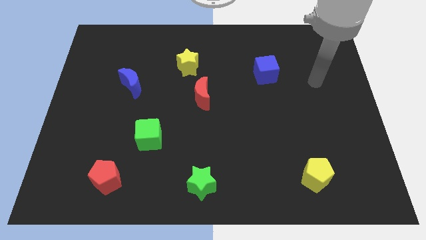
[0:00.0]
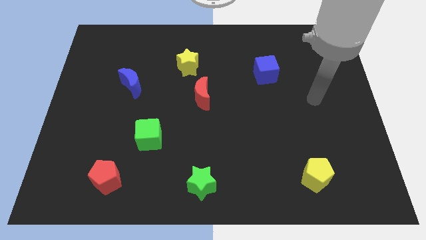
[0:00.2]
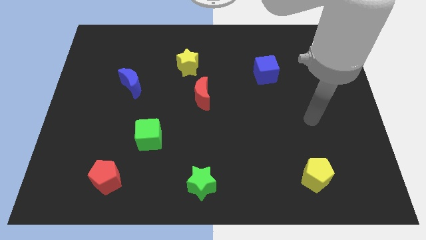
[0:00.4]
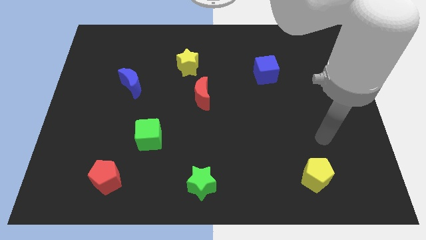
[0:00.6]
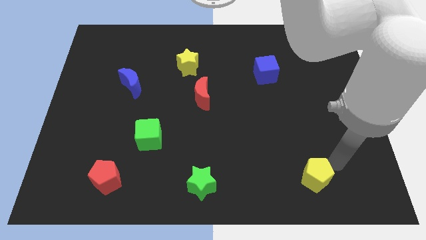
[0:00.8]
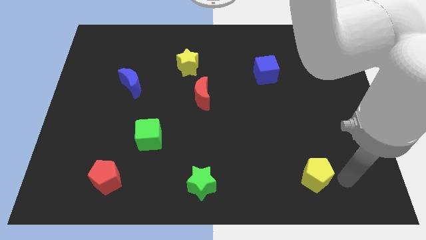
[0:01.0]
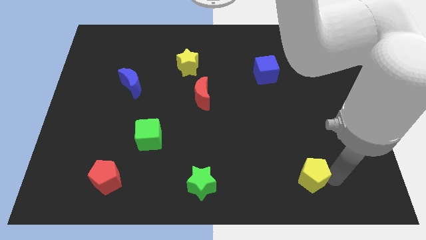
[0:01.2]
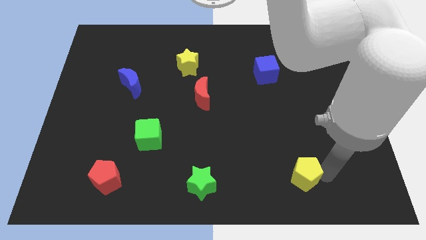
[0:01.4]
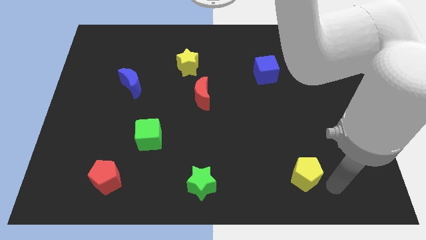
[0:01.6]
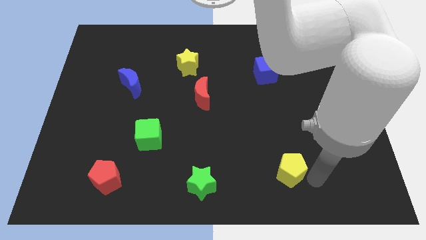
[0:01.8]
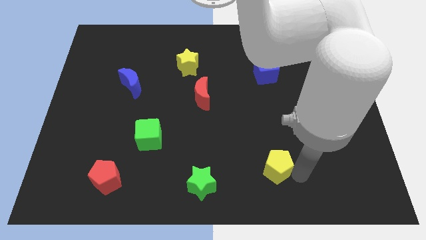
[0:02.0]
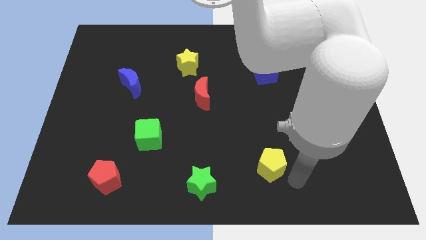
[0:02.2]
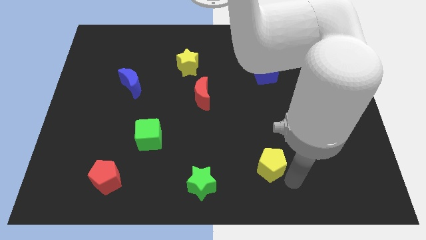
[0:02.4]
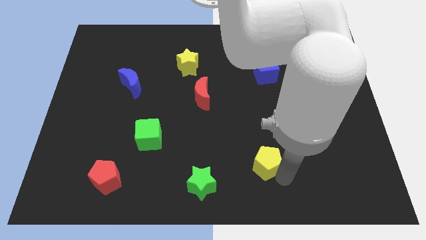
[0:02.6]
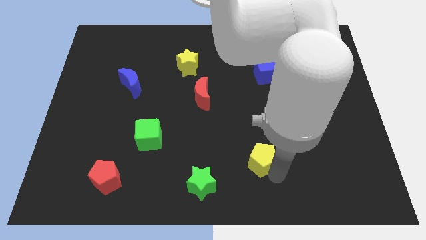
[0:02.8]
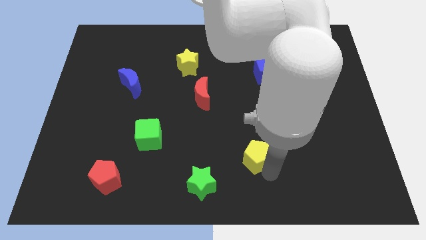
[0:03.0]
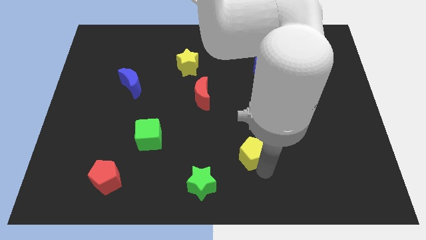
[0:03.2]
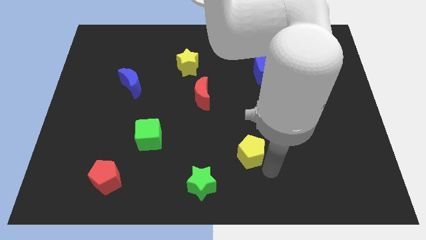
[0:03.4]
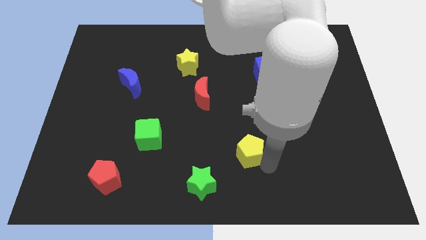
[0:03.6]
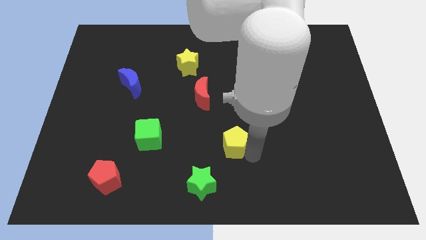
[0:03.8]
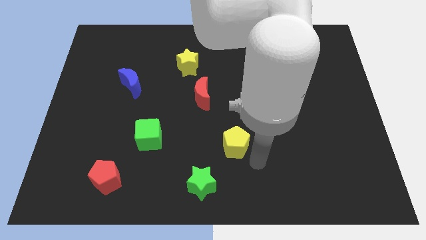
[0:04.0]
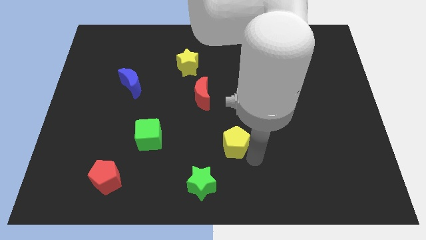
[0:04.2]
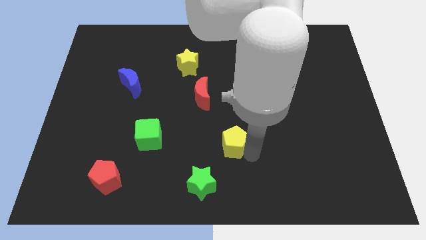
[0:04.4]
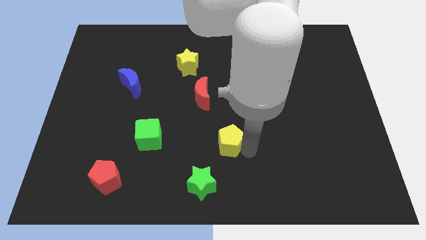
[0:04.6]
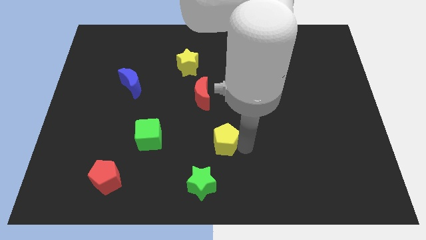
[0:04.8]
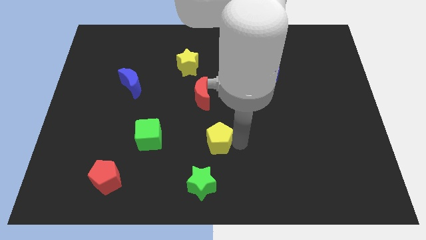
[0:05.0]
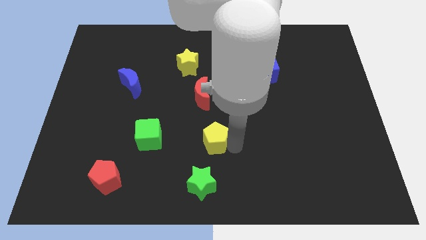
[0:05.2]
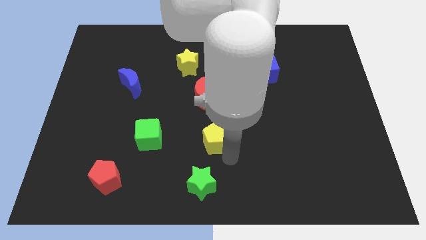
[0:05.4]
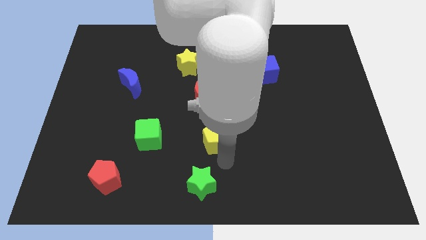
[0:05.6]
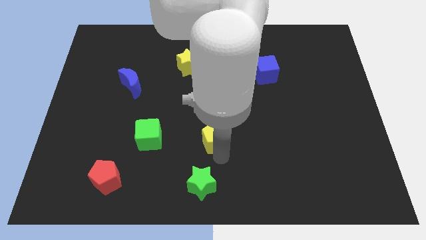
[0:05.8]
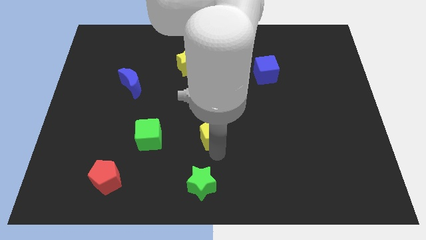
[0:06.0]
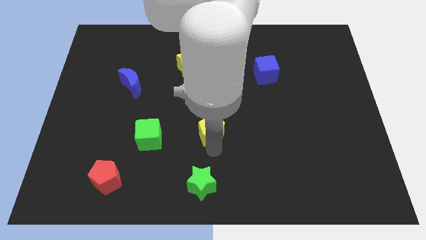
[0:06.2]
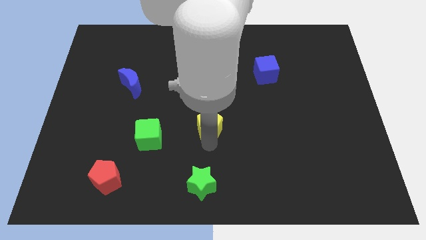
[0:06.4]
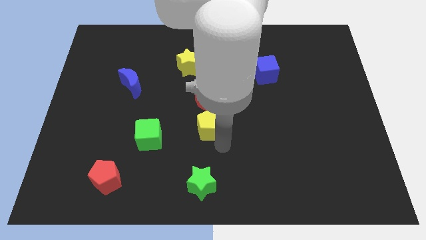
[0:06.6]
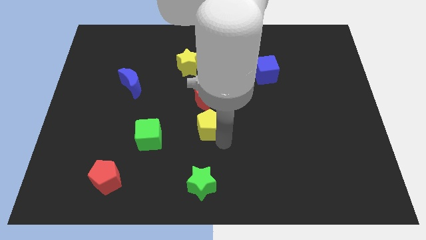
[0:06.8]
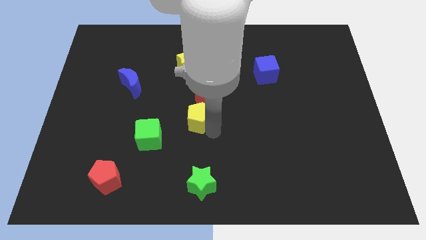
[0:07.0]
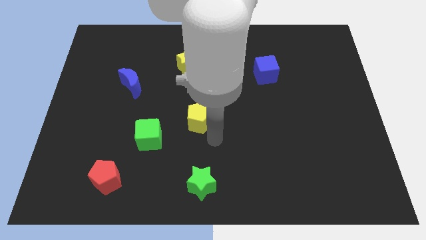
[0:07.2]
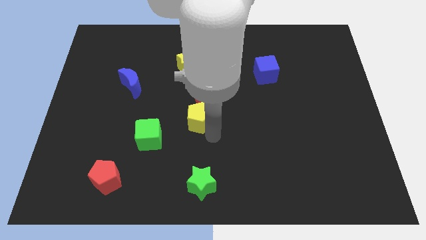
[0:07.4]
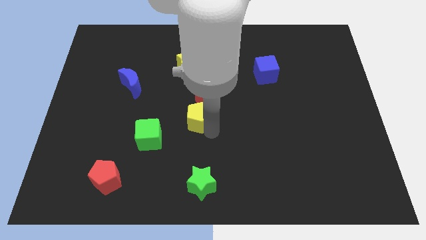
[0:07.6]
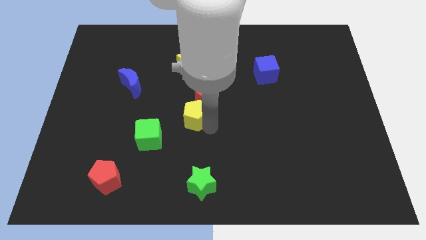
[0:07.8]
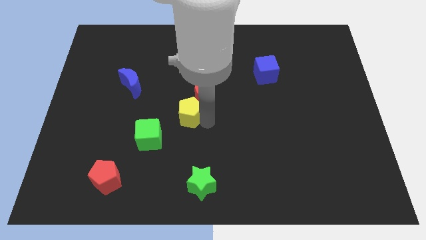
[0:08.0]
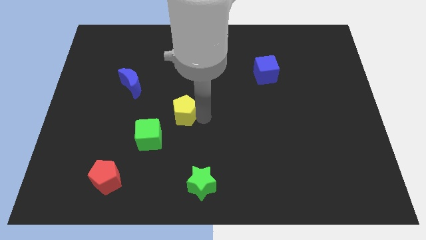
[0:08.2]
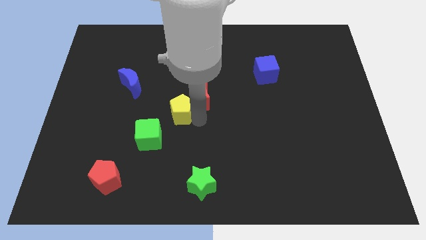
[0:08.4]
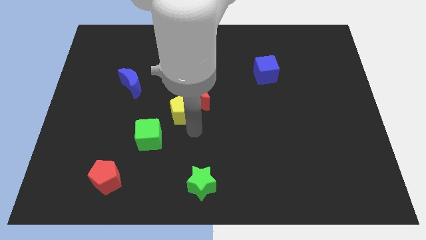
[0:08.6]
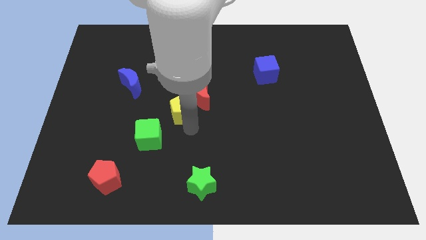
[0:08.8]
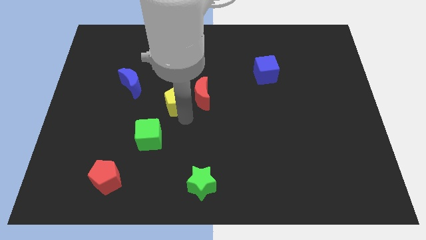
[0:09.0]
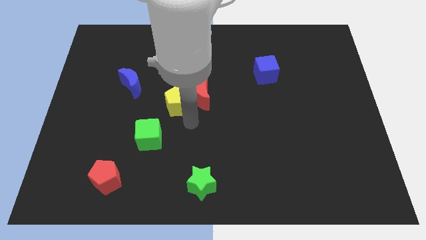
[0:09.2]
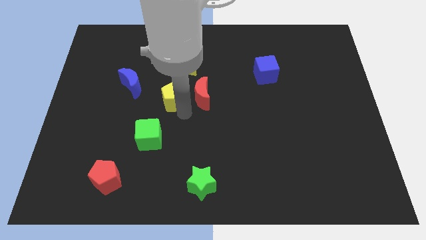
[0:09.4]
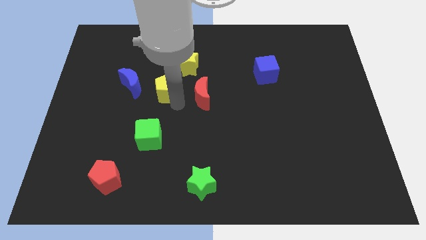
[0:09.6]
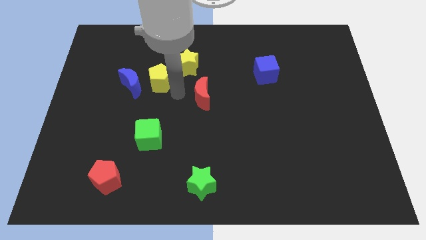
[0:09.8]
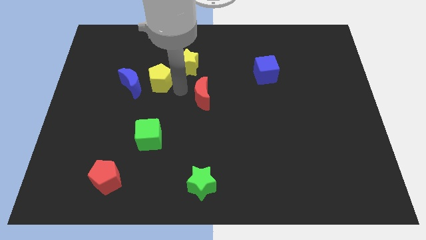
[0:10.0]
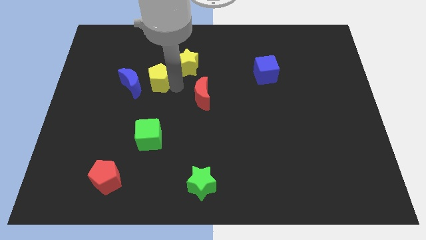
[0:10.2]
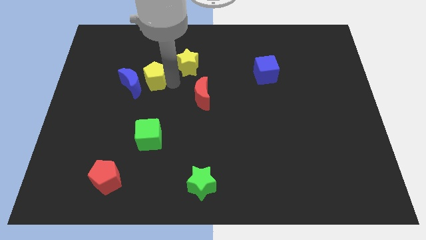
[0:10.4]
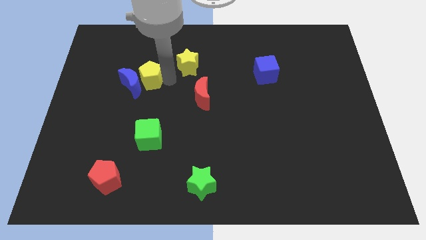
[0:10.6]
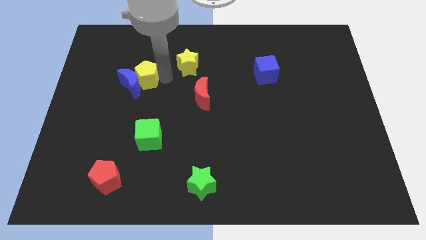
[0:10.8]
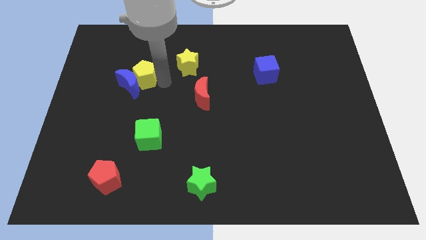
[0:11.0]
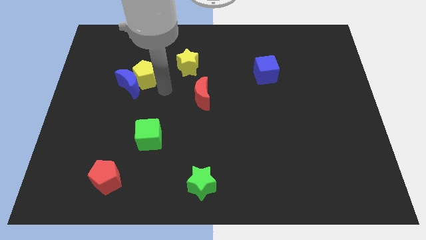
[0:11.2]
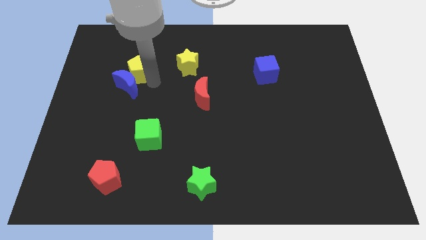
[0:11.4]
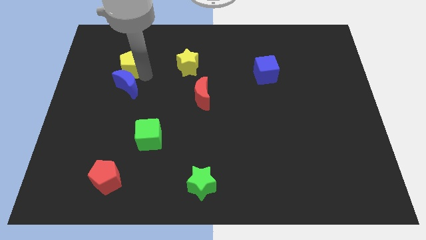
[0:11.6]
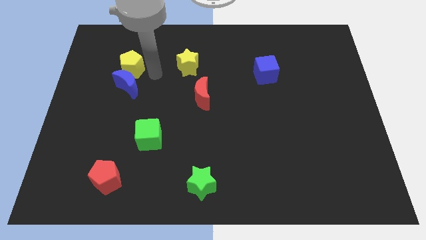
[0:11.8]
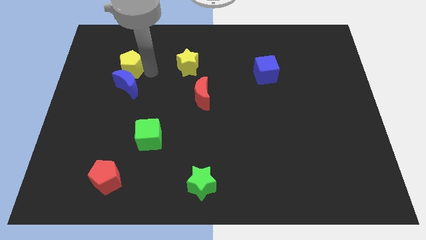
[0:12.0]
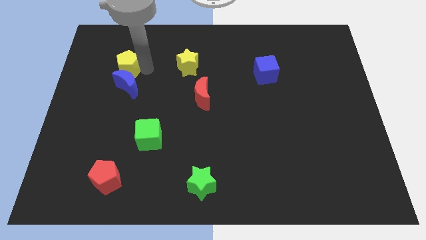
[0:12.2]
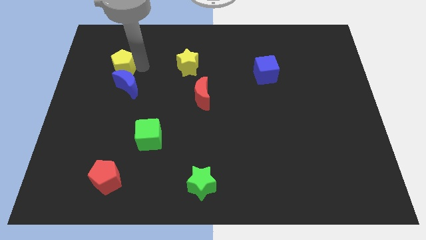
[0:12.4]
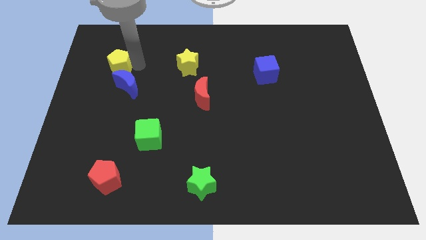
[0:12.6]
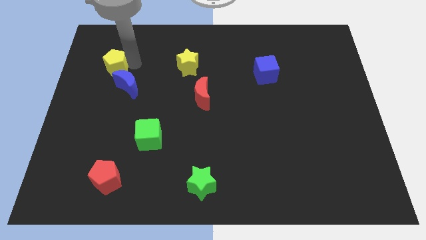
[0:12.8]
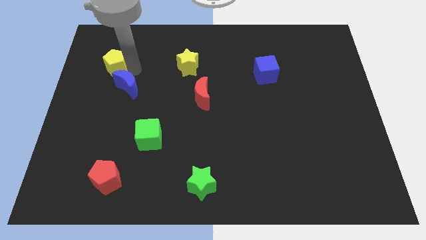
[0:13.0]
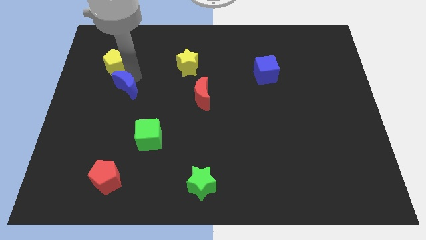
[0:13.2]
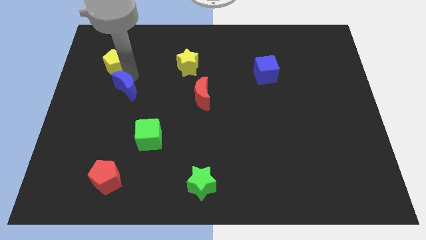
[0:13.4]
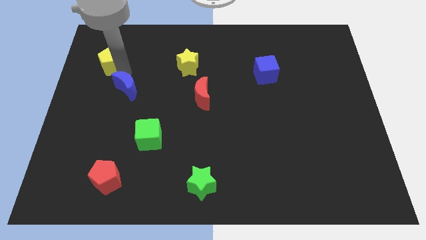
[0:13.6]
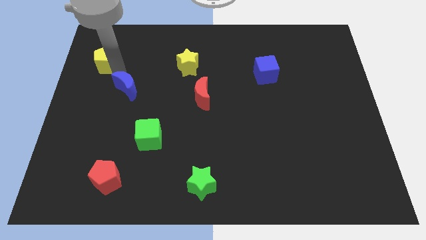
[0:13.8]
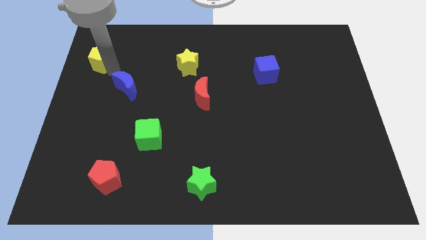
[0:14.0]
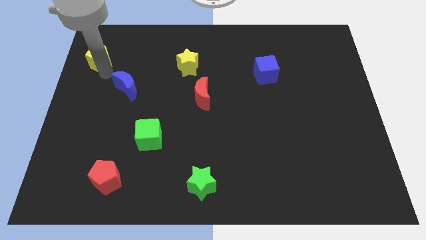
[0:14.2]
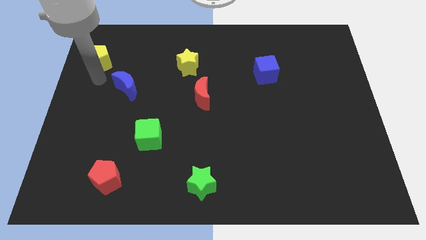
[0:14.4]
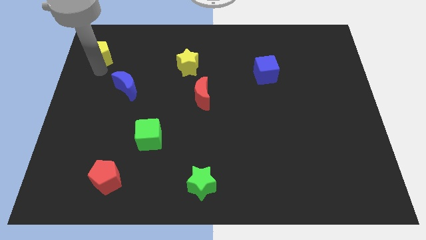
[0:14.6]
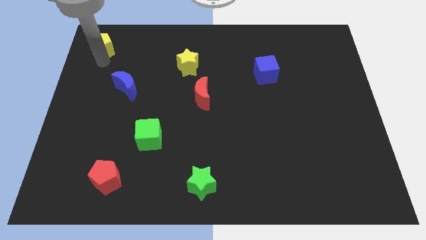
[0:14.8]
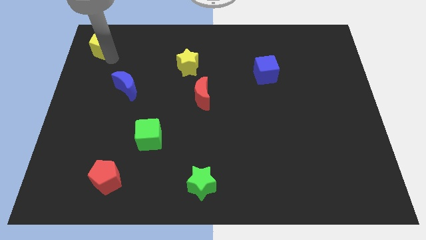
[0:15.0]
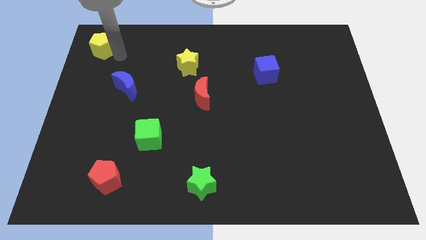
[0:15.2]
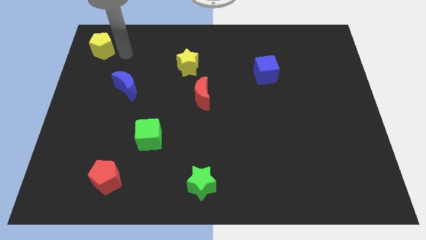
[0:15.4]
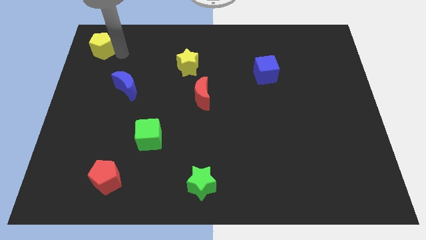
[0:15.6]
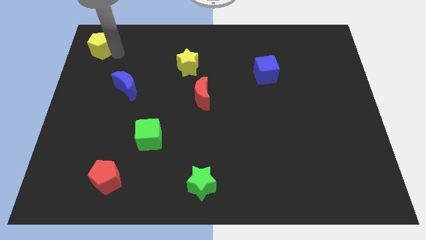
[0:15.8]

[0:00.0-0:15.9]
push the yellow pentagon to the upper left corner
